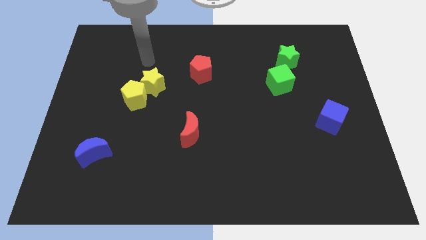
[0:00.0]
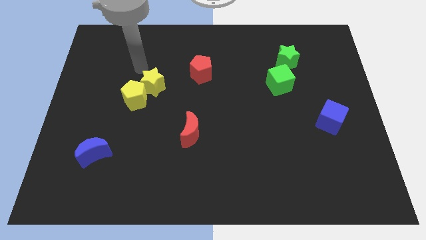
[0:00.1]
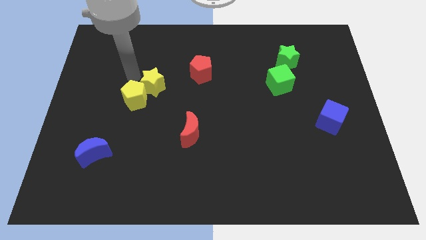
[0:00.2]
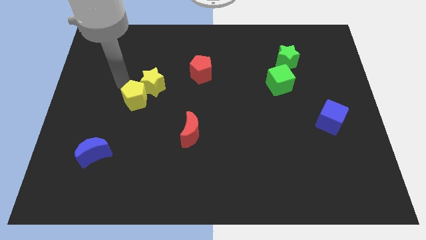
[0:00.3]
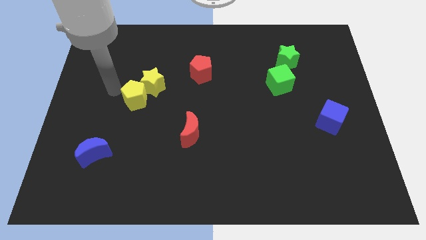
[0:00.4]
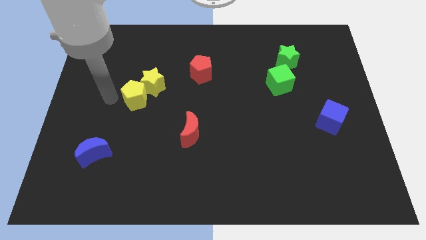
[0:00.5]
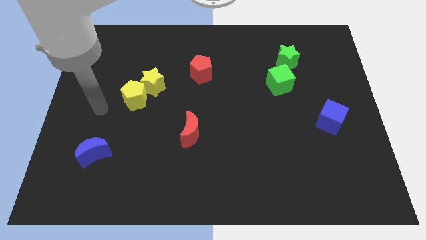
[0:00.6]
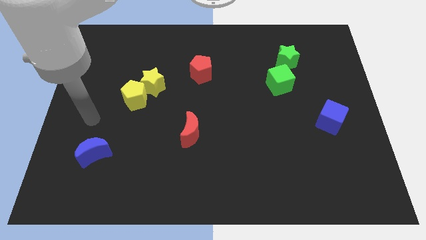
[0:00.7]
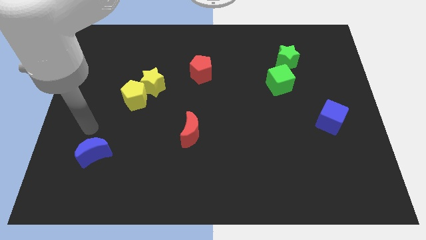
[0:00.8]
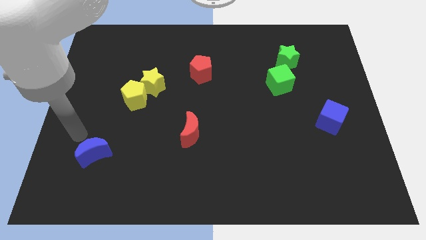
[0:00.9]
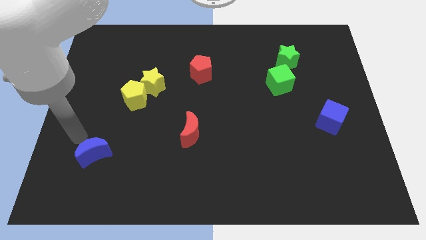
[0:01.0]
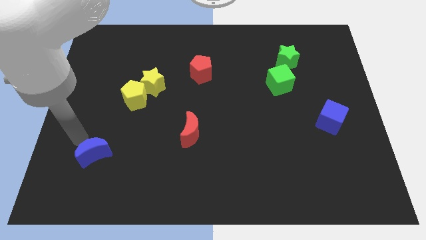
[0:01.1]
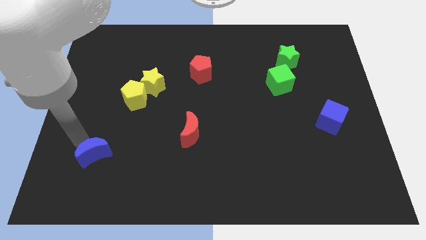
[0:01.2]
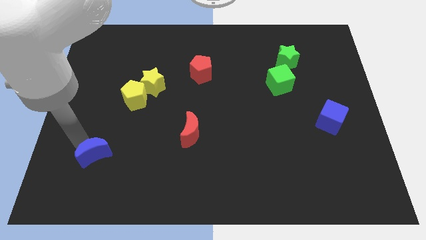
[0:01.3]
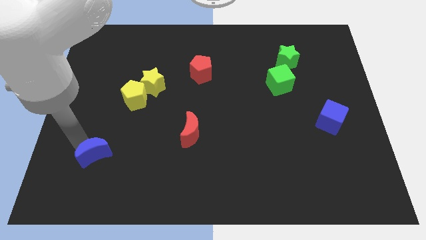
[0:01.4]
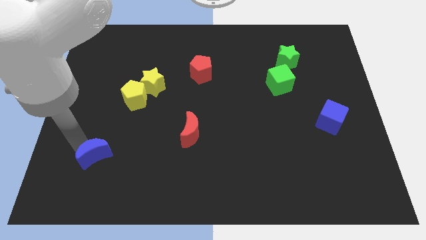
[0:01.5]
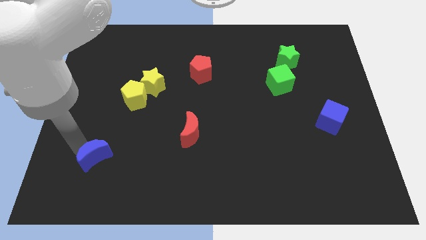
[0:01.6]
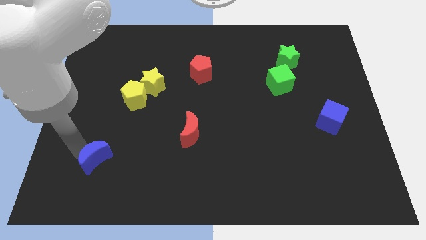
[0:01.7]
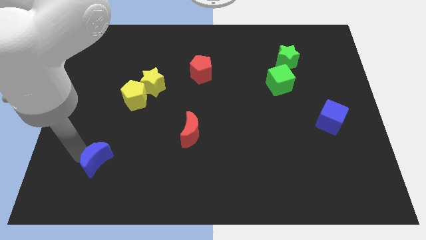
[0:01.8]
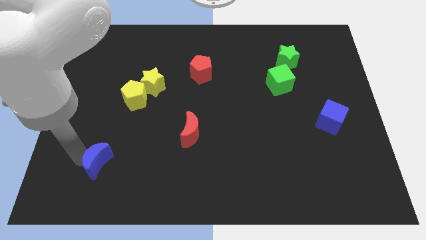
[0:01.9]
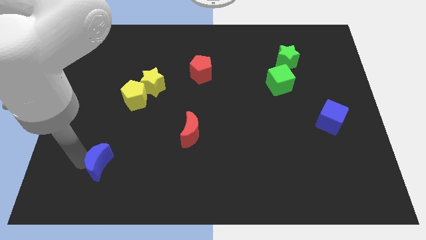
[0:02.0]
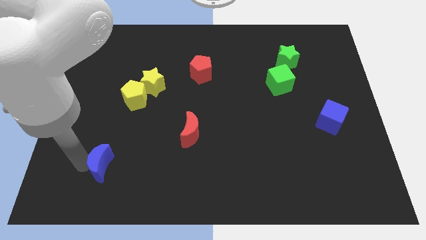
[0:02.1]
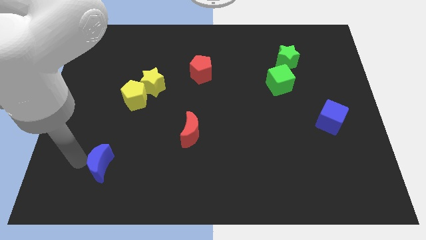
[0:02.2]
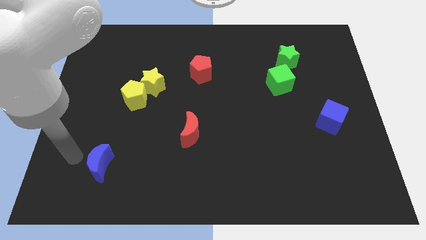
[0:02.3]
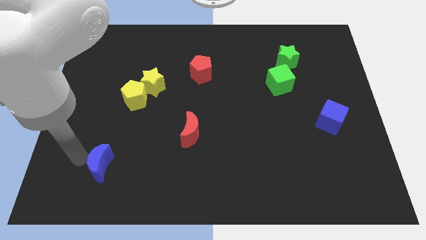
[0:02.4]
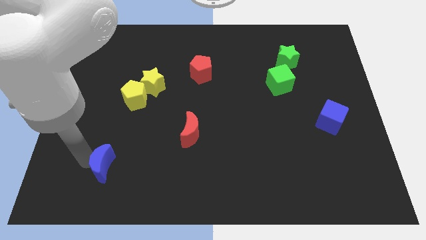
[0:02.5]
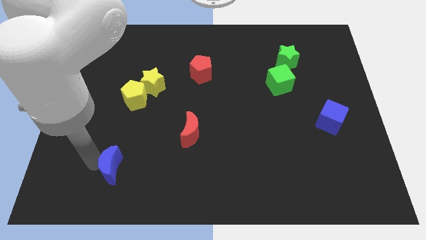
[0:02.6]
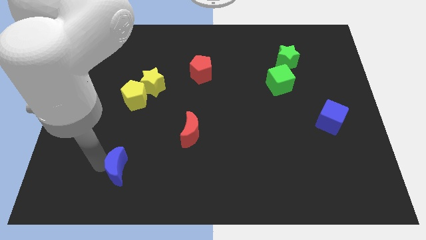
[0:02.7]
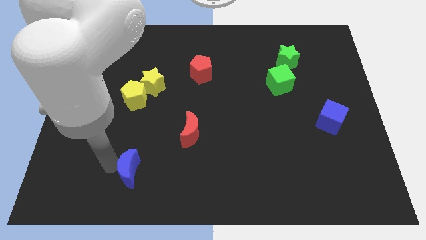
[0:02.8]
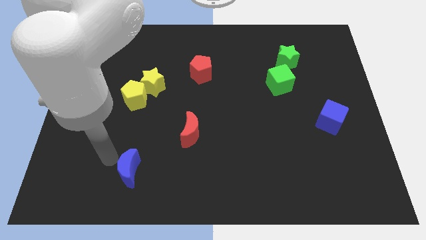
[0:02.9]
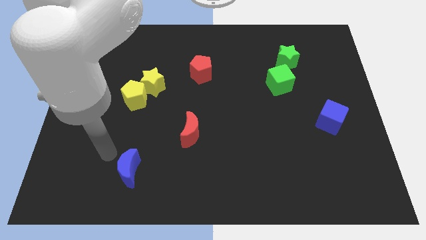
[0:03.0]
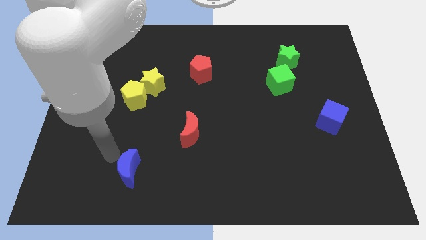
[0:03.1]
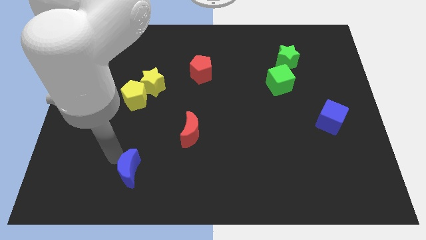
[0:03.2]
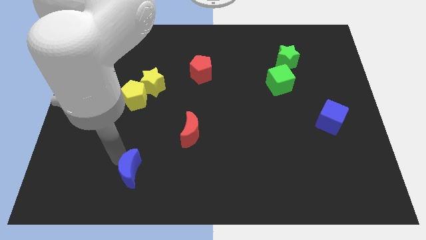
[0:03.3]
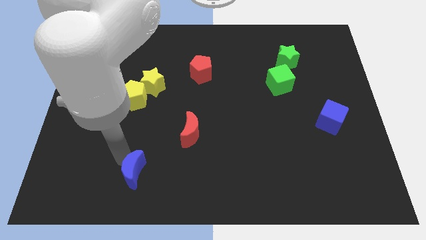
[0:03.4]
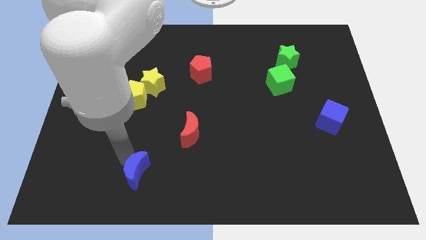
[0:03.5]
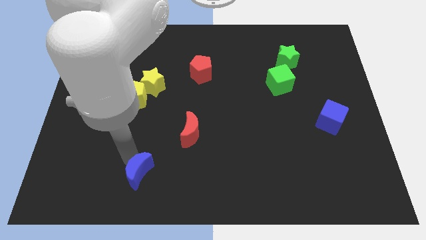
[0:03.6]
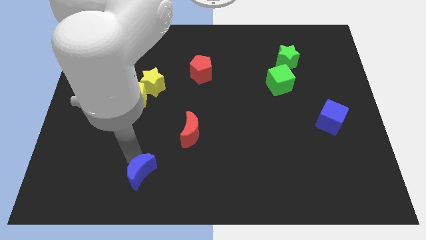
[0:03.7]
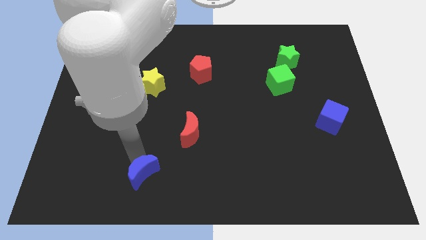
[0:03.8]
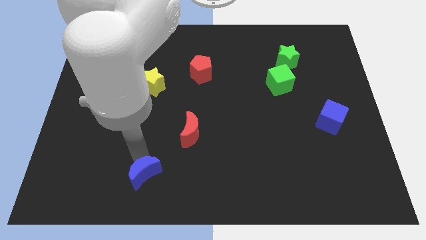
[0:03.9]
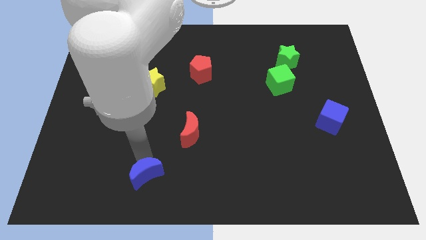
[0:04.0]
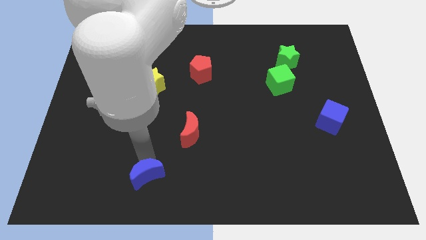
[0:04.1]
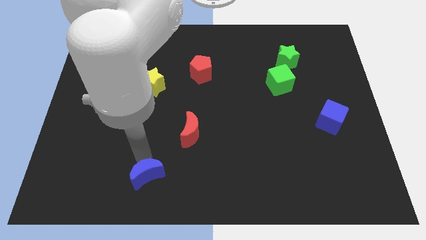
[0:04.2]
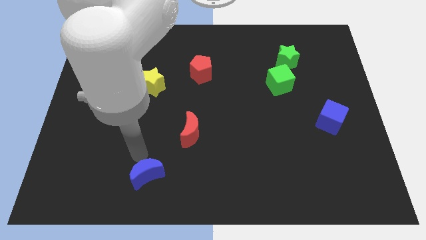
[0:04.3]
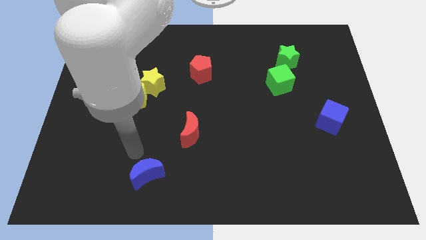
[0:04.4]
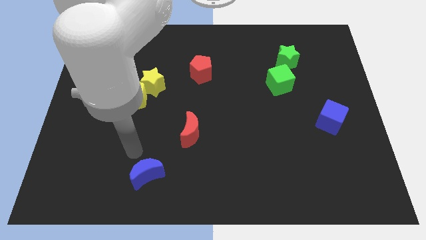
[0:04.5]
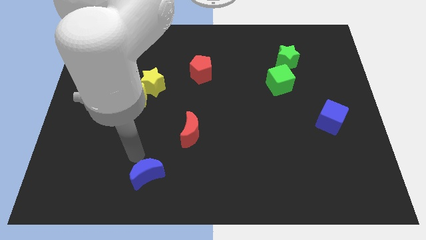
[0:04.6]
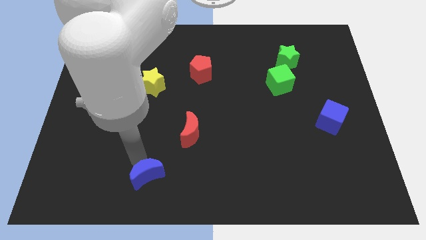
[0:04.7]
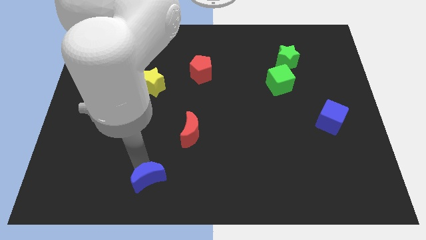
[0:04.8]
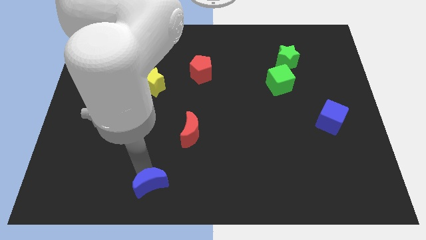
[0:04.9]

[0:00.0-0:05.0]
slide the blue moon to the bottom

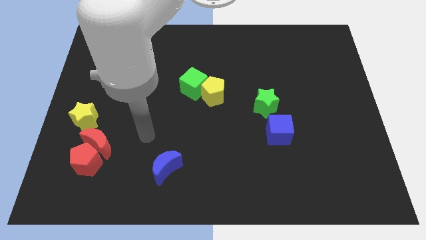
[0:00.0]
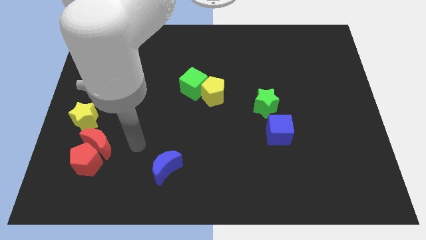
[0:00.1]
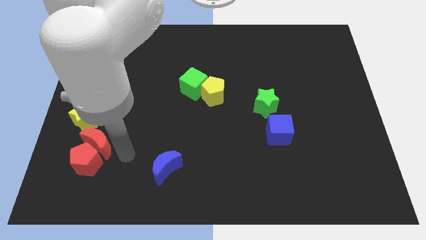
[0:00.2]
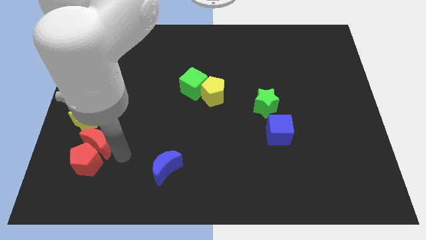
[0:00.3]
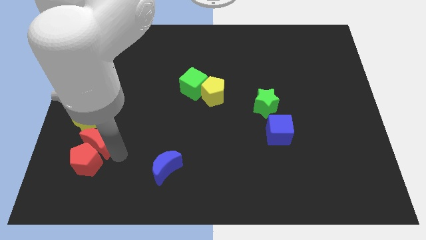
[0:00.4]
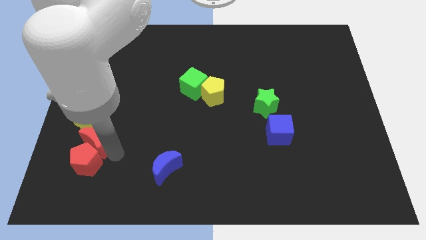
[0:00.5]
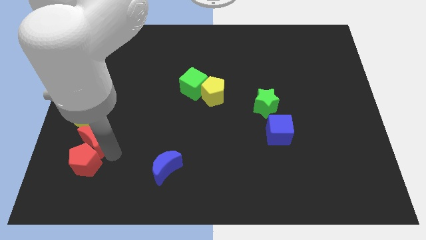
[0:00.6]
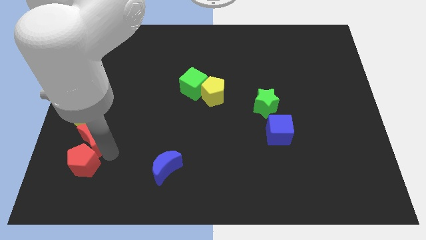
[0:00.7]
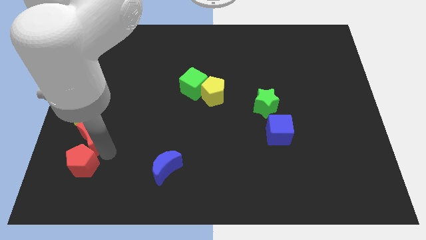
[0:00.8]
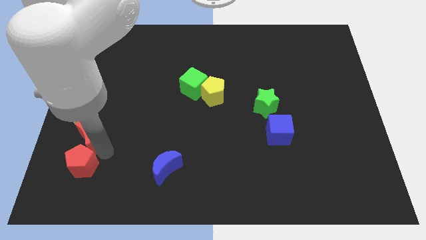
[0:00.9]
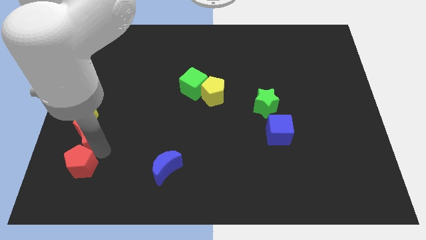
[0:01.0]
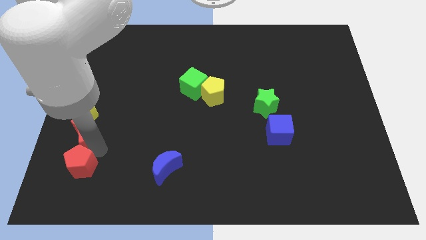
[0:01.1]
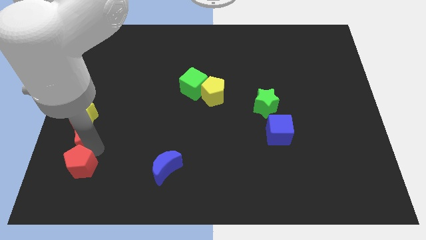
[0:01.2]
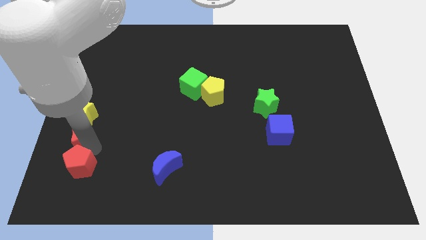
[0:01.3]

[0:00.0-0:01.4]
put the red moon to the left side of the board
